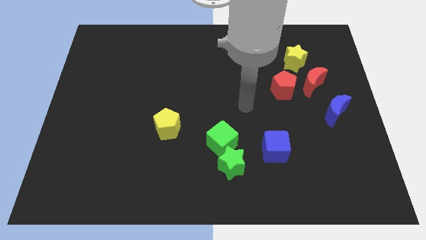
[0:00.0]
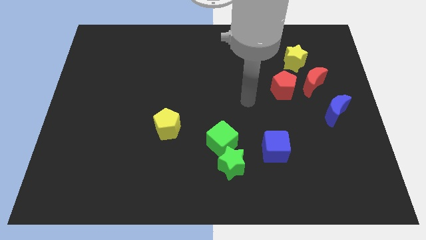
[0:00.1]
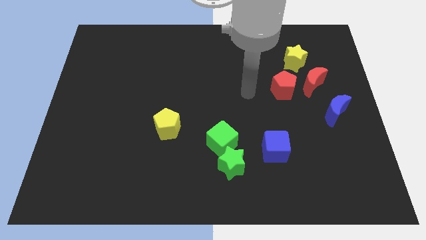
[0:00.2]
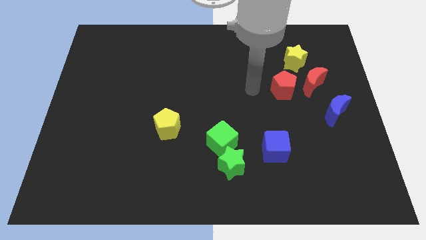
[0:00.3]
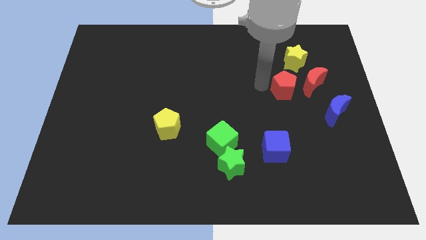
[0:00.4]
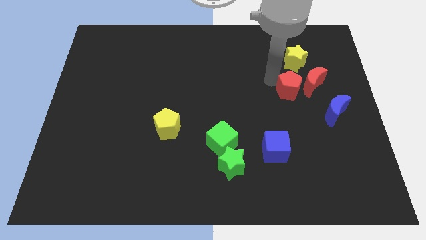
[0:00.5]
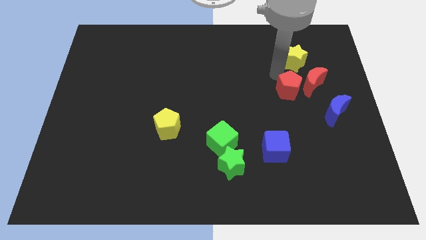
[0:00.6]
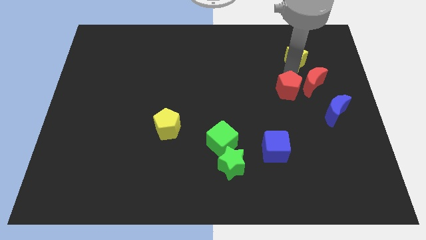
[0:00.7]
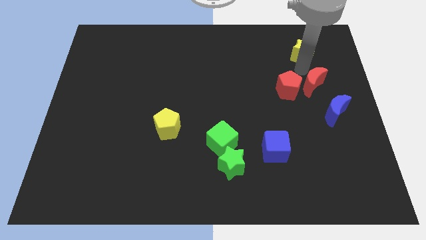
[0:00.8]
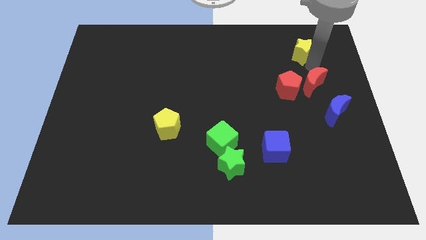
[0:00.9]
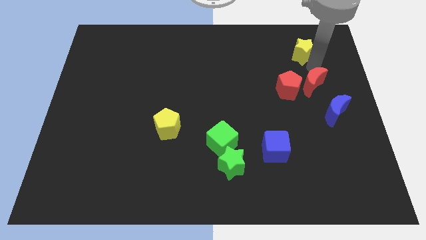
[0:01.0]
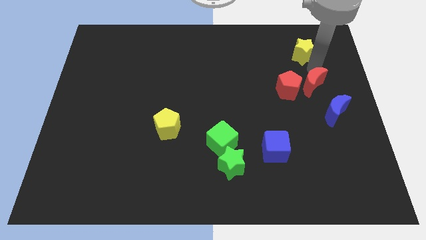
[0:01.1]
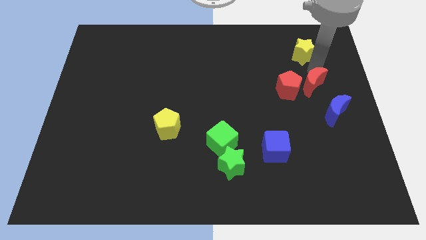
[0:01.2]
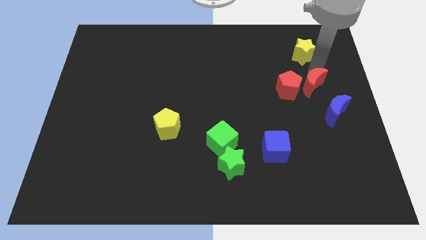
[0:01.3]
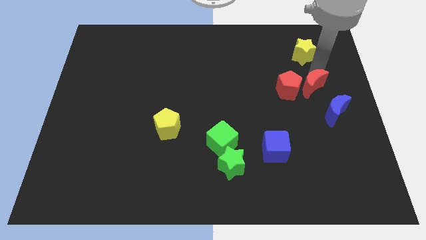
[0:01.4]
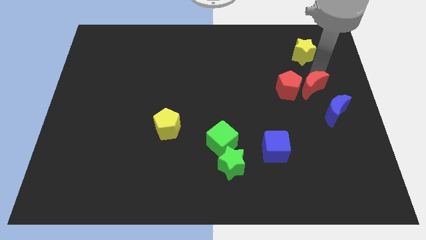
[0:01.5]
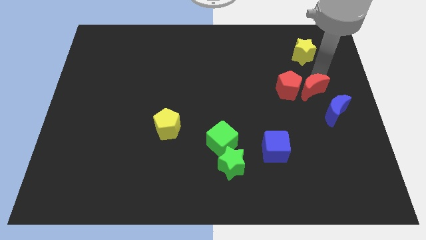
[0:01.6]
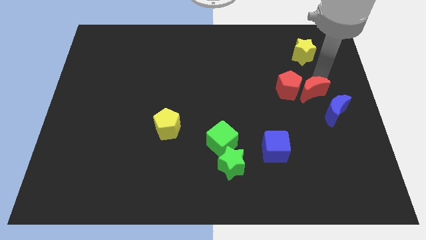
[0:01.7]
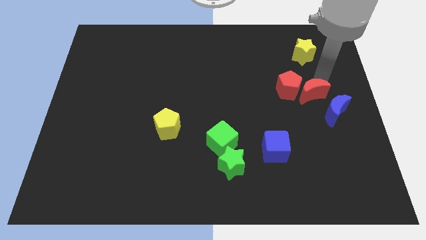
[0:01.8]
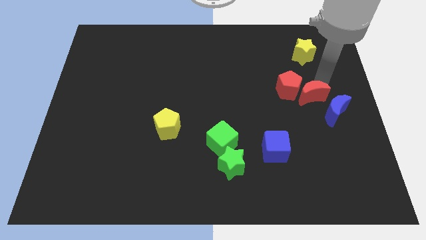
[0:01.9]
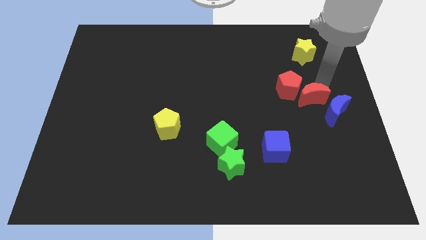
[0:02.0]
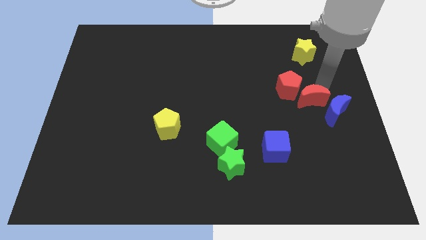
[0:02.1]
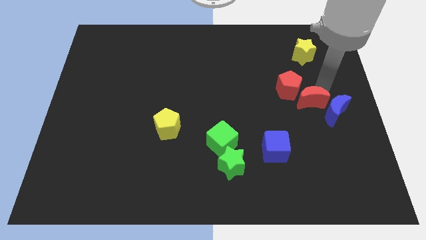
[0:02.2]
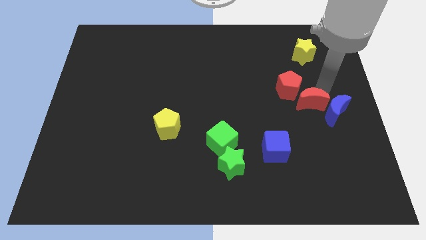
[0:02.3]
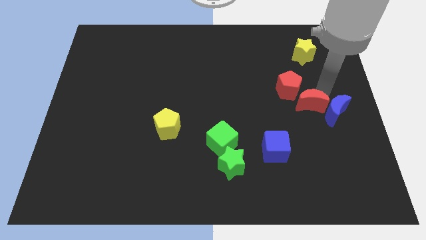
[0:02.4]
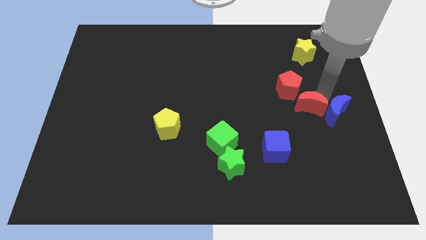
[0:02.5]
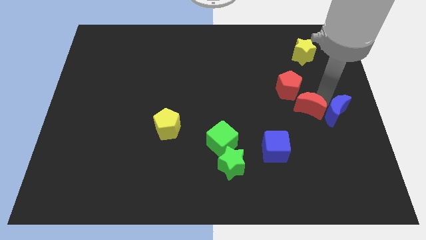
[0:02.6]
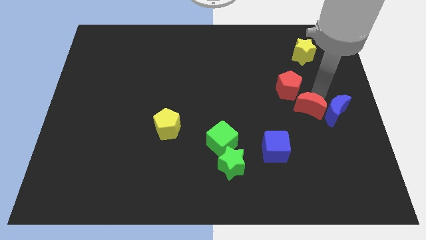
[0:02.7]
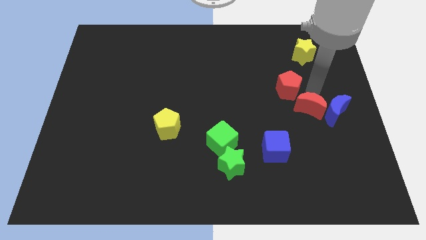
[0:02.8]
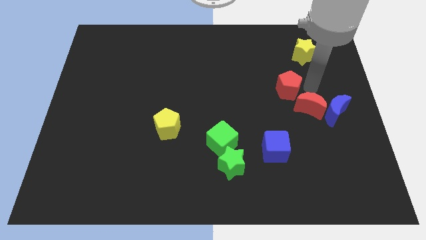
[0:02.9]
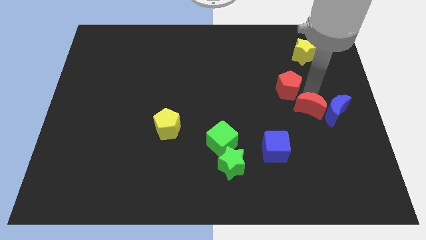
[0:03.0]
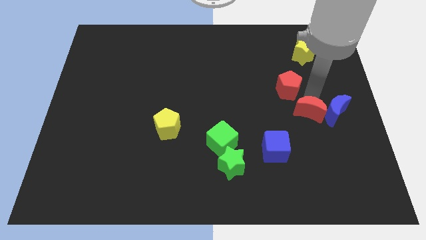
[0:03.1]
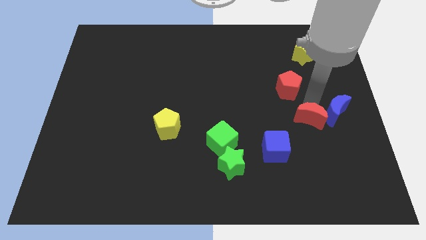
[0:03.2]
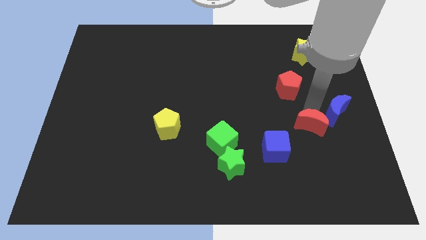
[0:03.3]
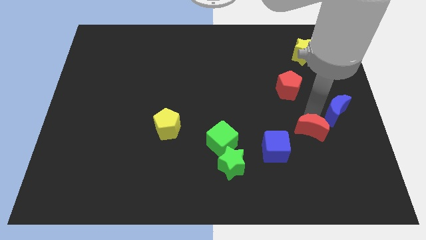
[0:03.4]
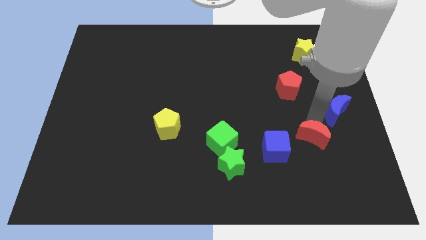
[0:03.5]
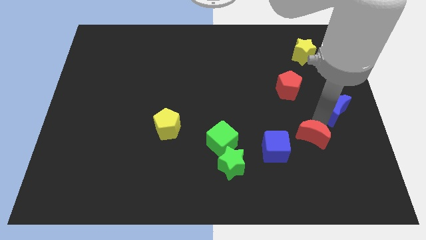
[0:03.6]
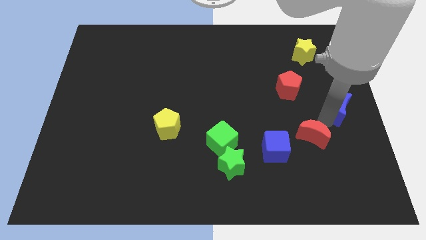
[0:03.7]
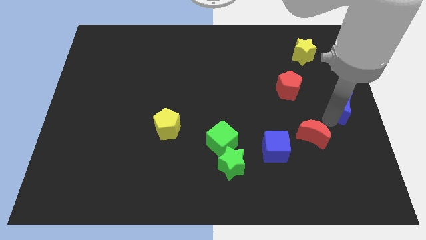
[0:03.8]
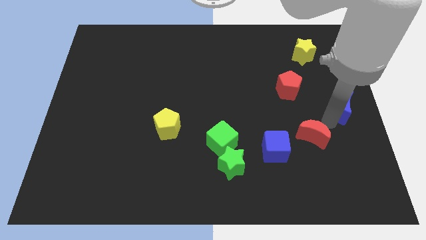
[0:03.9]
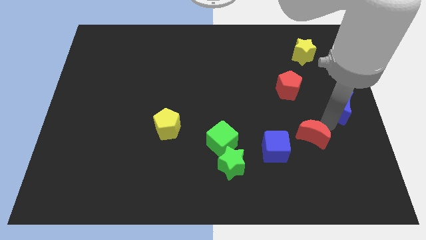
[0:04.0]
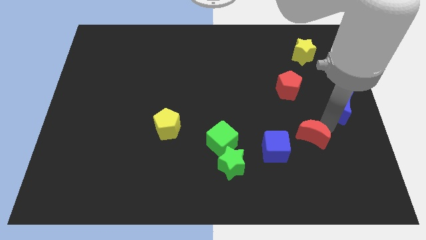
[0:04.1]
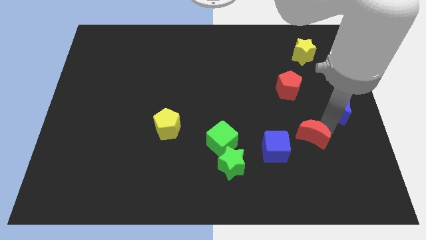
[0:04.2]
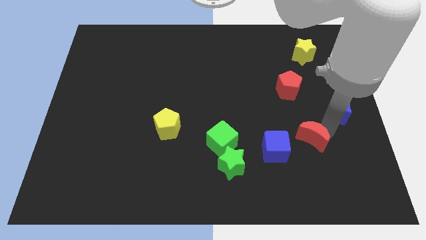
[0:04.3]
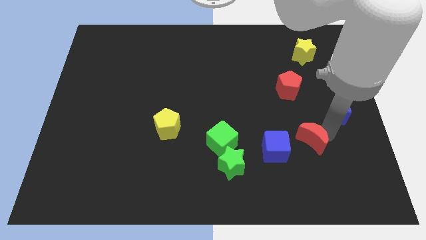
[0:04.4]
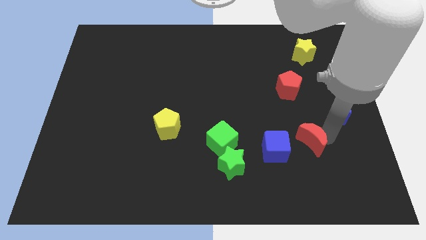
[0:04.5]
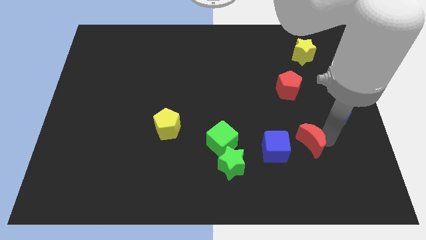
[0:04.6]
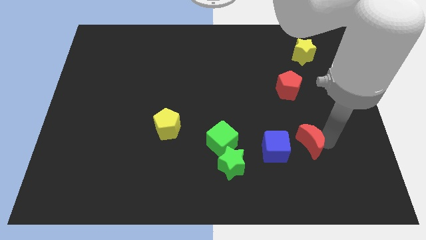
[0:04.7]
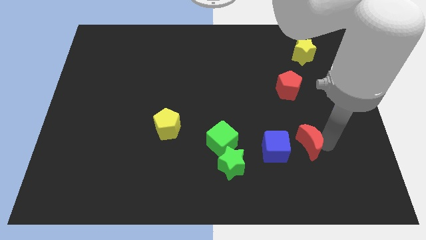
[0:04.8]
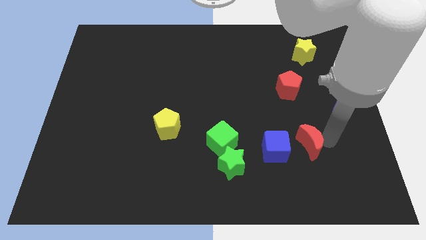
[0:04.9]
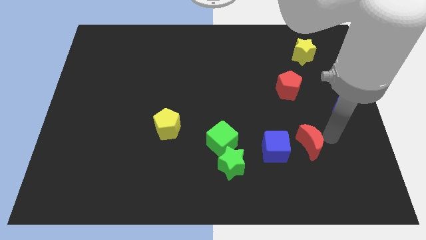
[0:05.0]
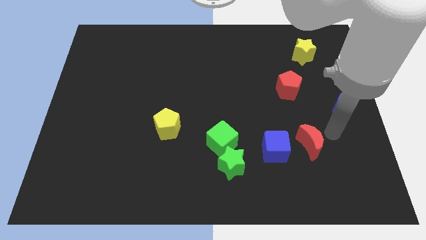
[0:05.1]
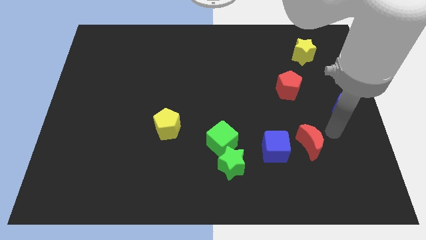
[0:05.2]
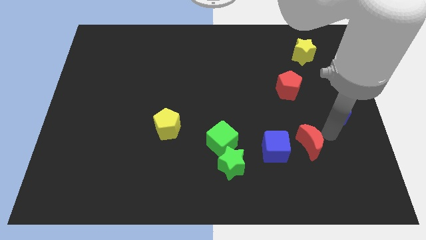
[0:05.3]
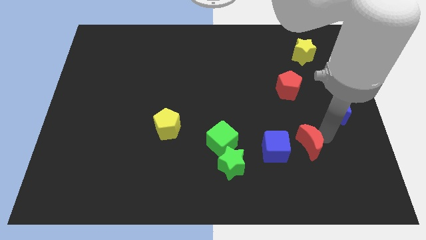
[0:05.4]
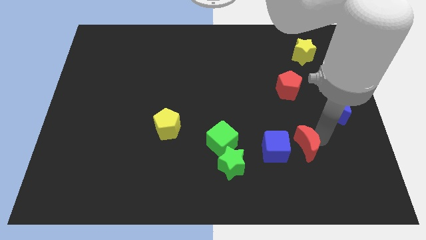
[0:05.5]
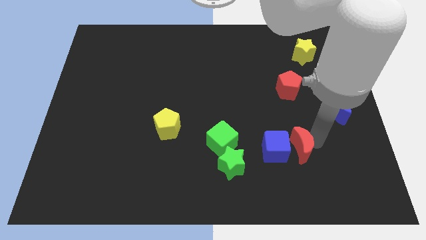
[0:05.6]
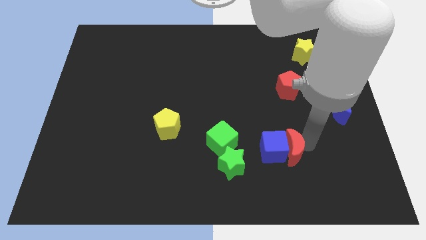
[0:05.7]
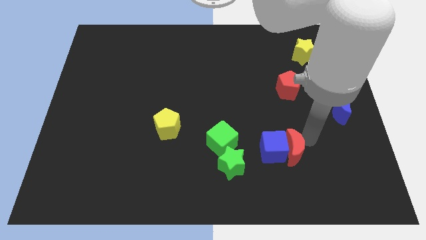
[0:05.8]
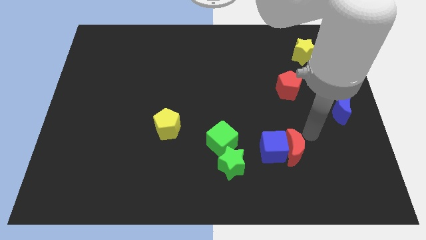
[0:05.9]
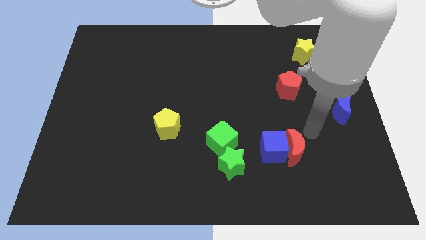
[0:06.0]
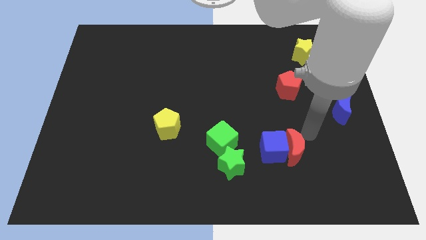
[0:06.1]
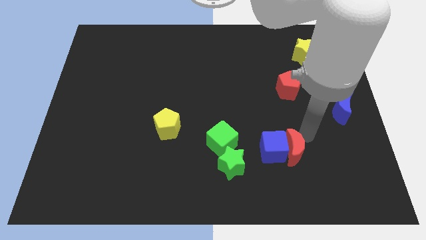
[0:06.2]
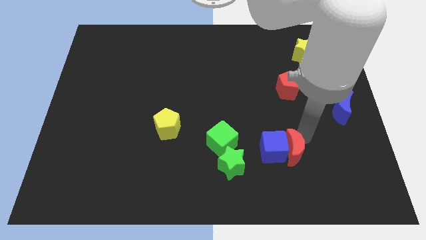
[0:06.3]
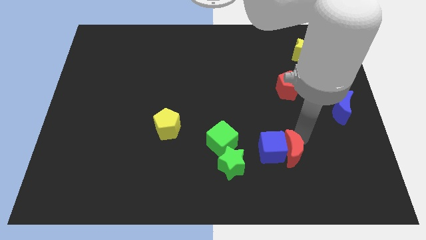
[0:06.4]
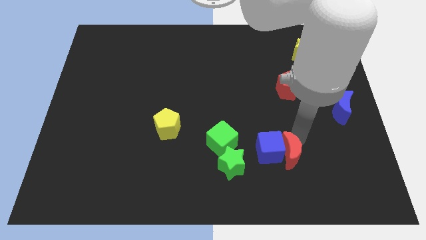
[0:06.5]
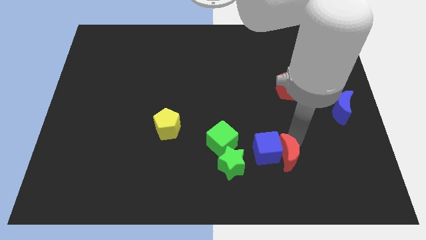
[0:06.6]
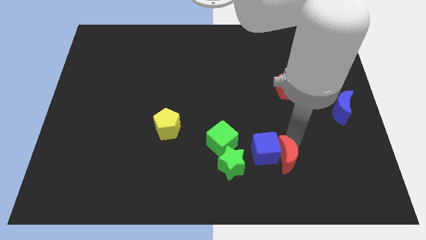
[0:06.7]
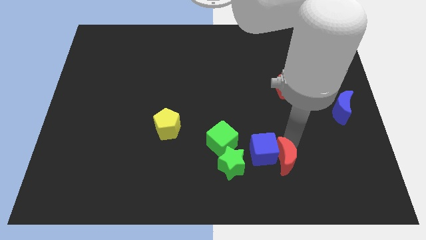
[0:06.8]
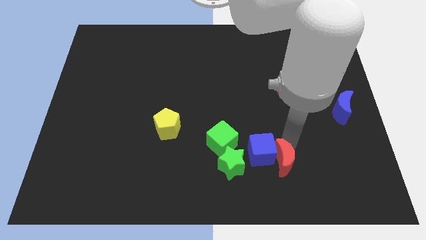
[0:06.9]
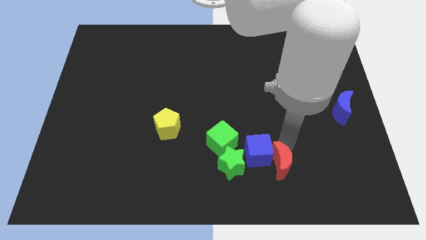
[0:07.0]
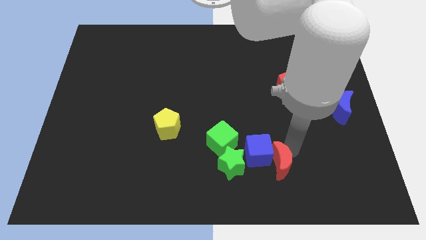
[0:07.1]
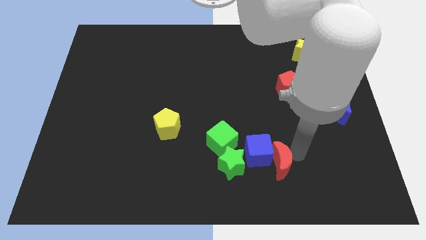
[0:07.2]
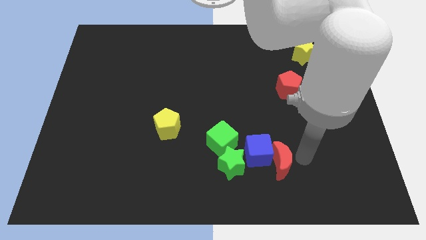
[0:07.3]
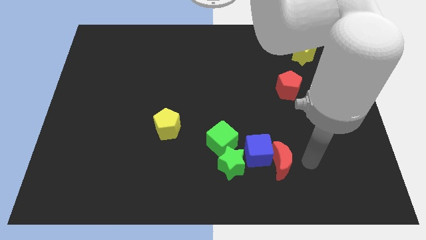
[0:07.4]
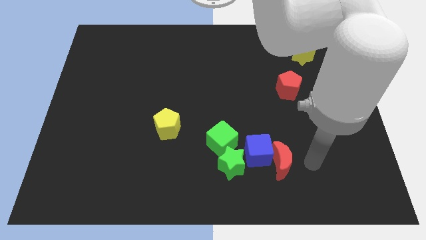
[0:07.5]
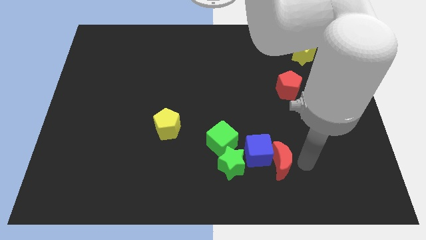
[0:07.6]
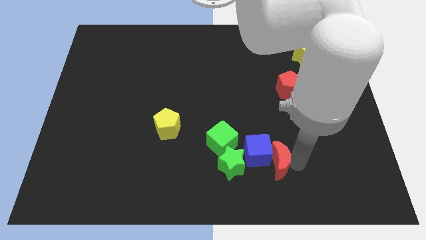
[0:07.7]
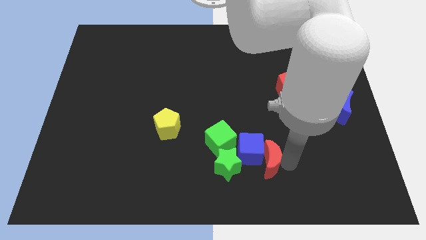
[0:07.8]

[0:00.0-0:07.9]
move the red moon to the bottom right side of the green cube
